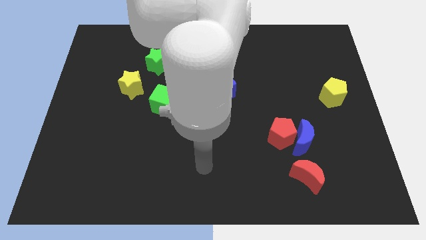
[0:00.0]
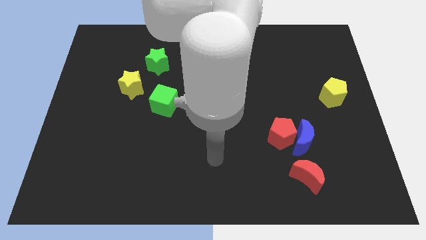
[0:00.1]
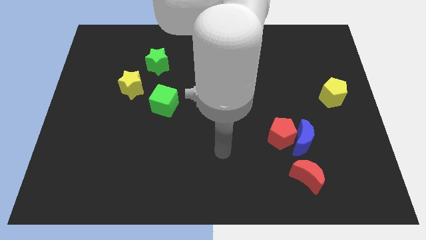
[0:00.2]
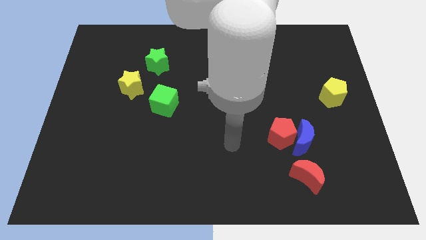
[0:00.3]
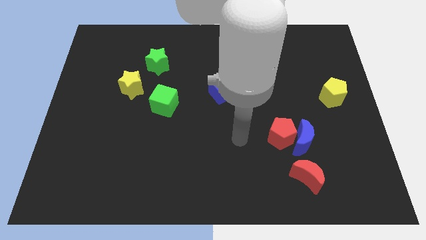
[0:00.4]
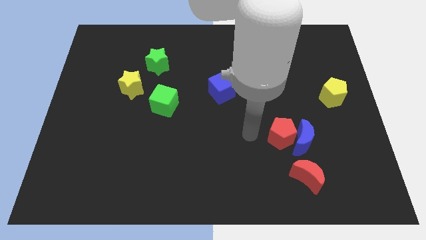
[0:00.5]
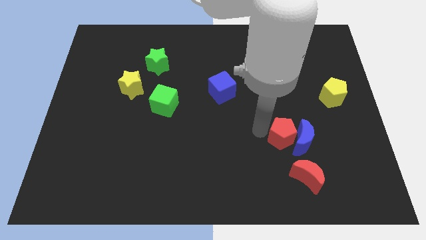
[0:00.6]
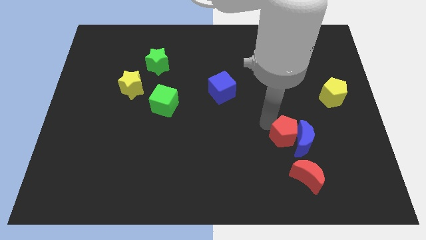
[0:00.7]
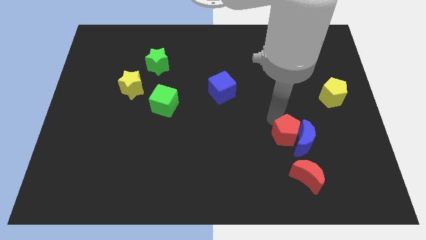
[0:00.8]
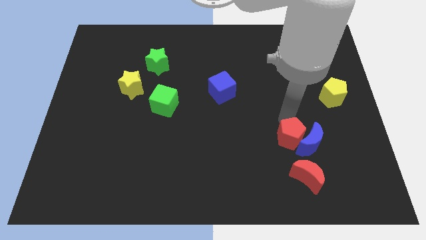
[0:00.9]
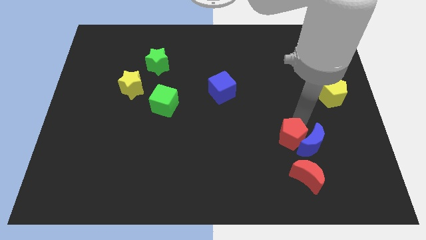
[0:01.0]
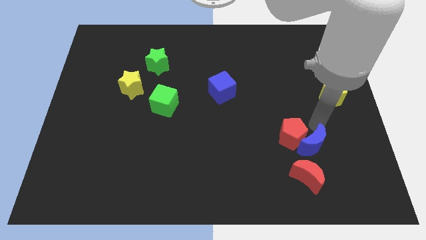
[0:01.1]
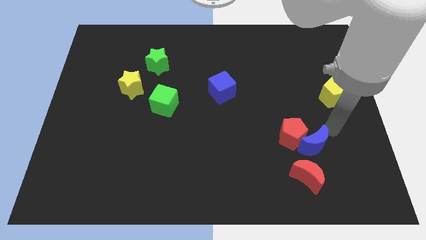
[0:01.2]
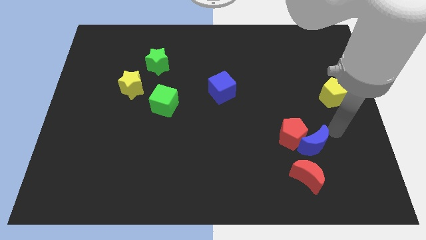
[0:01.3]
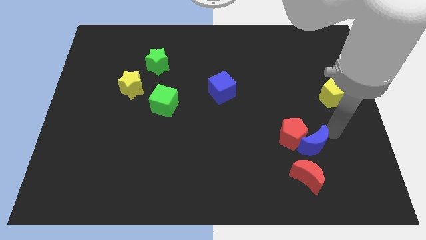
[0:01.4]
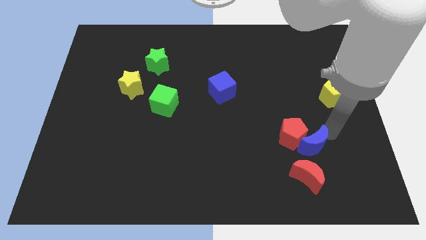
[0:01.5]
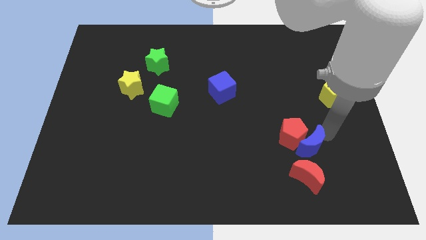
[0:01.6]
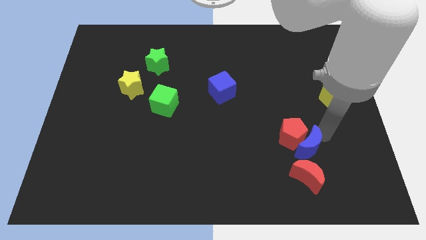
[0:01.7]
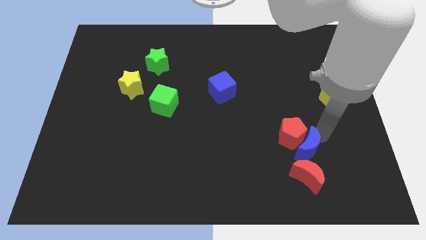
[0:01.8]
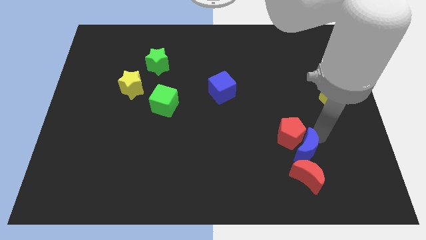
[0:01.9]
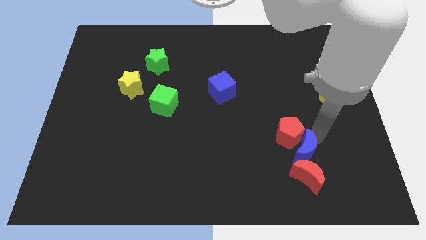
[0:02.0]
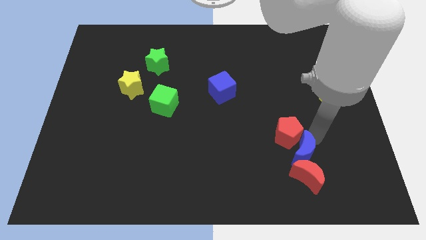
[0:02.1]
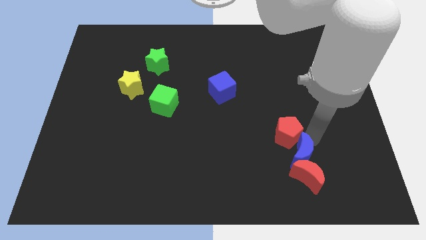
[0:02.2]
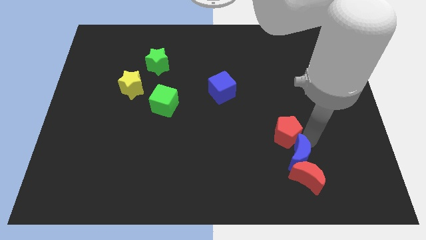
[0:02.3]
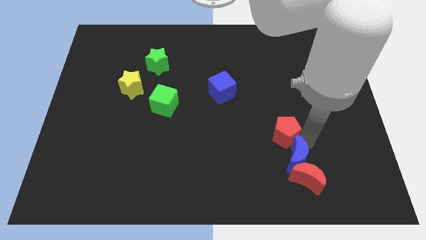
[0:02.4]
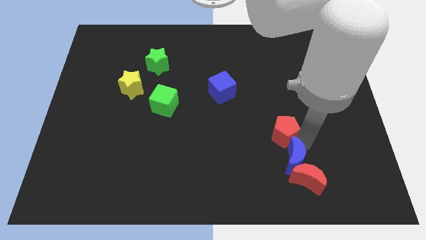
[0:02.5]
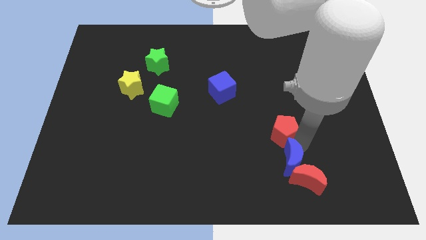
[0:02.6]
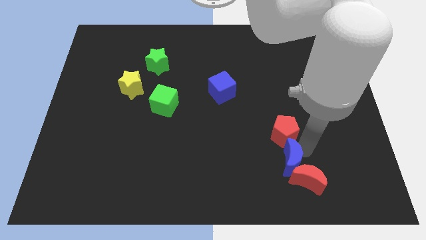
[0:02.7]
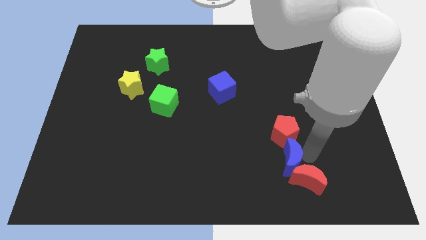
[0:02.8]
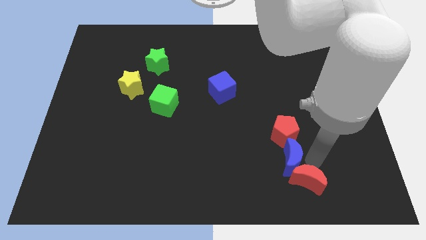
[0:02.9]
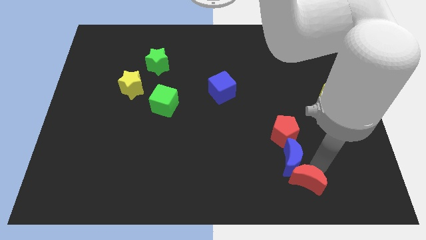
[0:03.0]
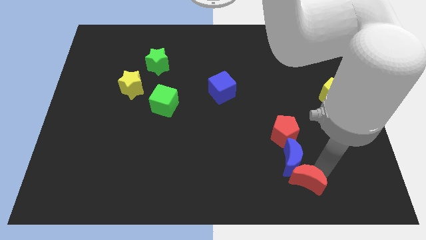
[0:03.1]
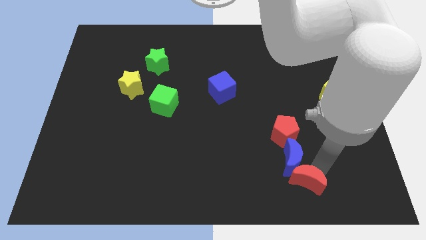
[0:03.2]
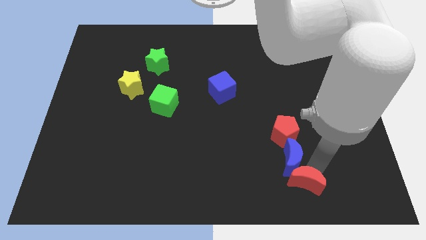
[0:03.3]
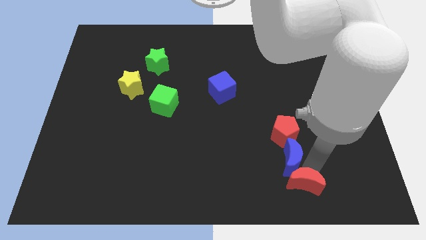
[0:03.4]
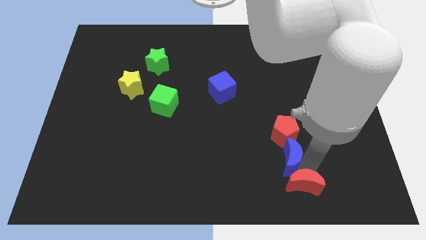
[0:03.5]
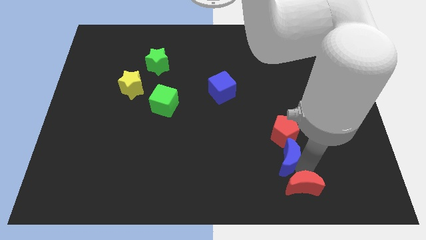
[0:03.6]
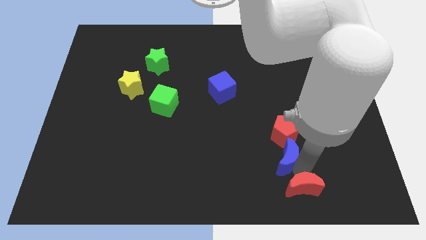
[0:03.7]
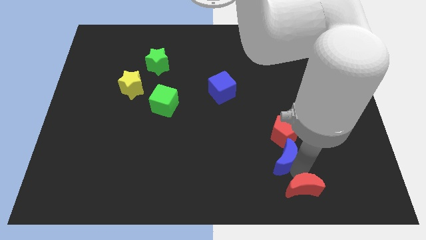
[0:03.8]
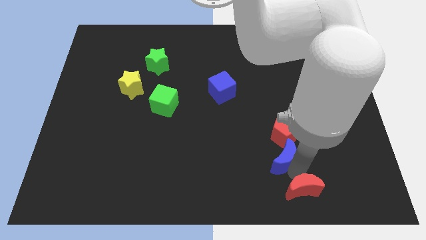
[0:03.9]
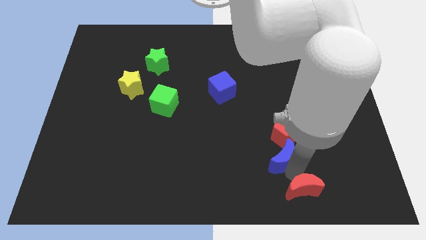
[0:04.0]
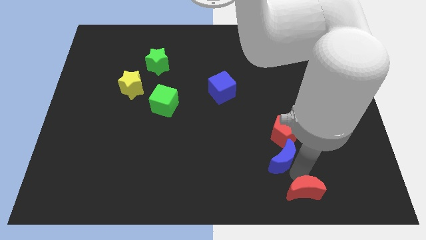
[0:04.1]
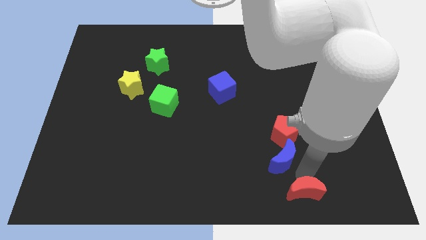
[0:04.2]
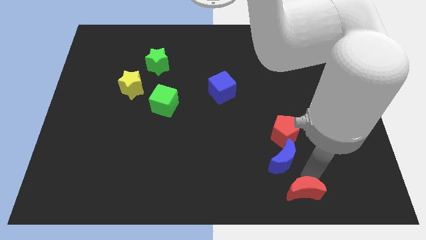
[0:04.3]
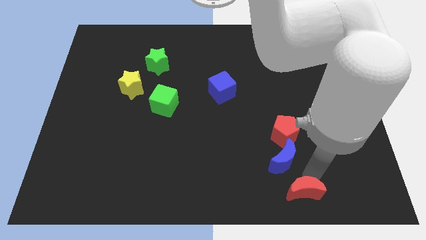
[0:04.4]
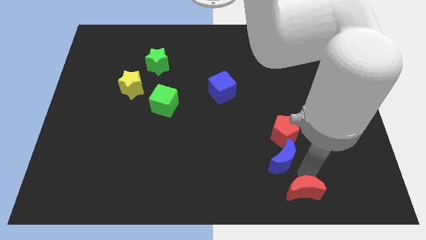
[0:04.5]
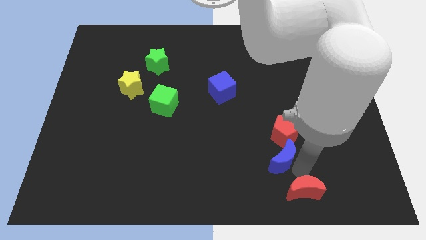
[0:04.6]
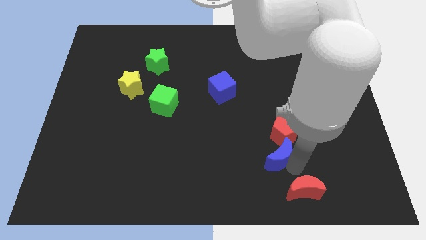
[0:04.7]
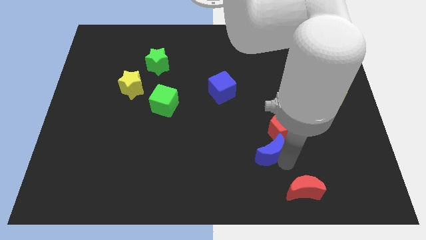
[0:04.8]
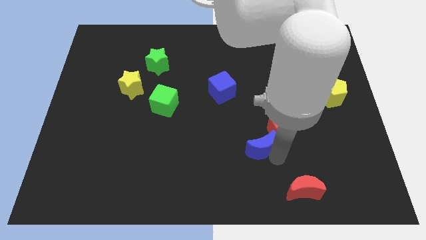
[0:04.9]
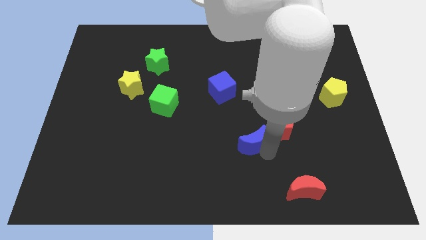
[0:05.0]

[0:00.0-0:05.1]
push the blue moon left of the red pentagon

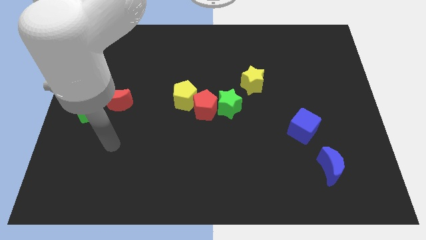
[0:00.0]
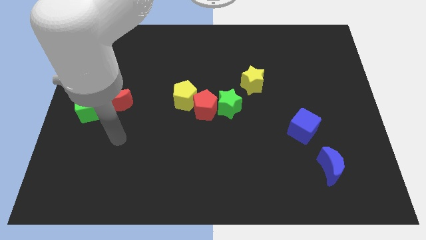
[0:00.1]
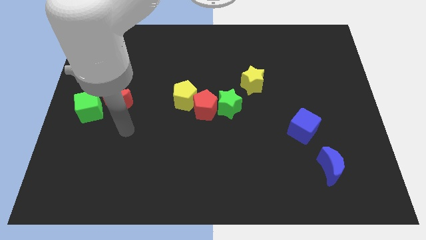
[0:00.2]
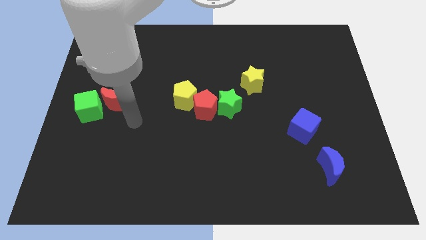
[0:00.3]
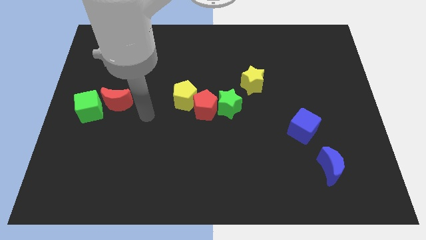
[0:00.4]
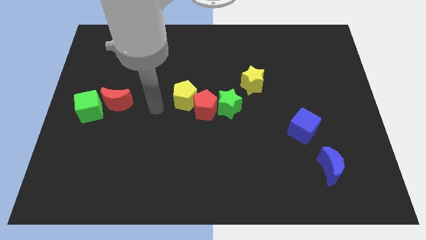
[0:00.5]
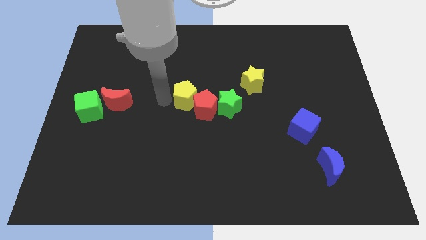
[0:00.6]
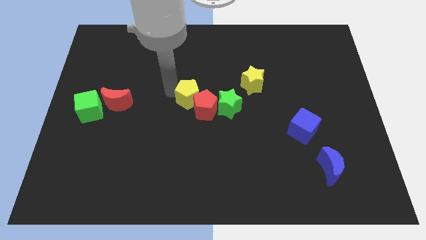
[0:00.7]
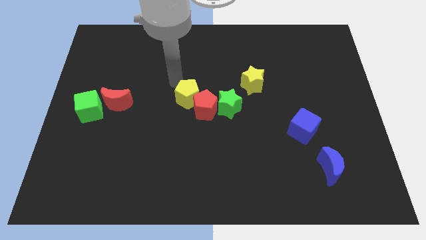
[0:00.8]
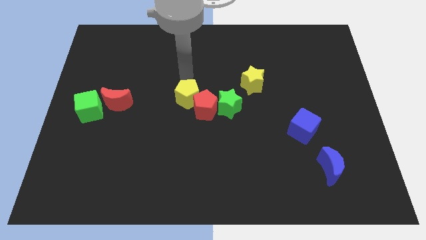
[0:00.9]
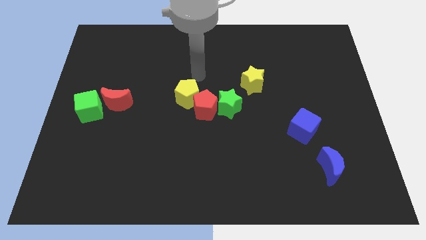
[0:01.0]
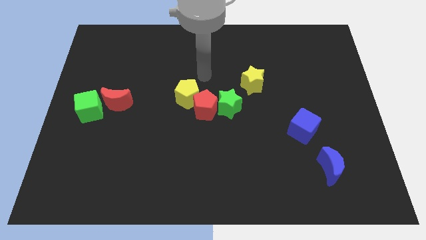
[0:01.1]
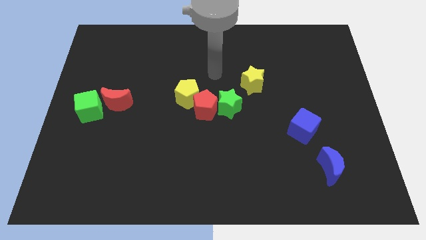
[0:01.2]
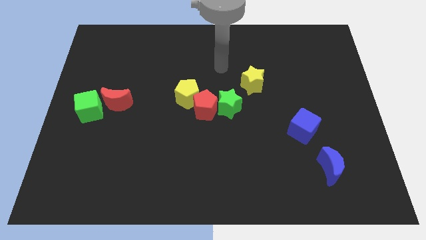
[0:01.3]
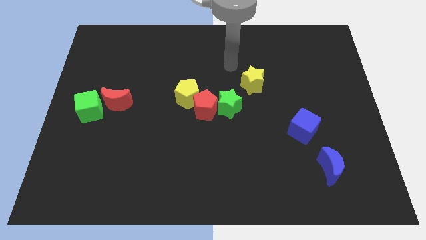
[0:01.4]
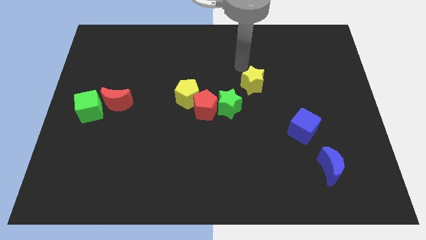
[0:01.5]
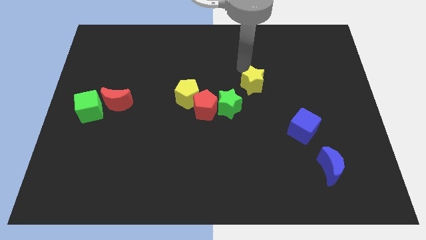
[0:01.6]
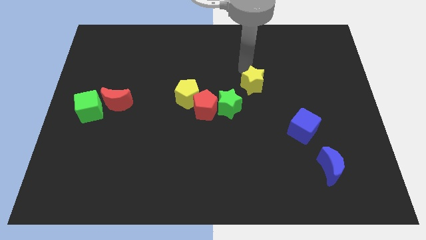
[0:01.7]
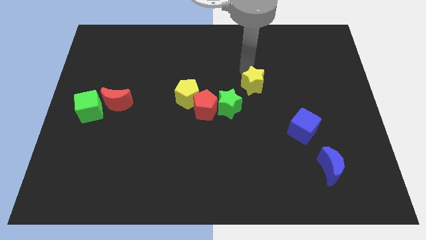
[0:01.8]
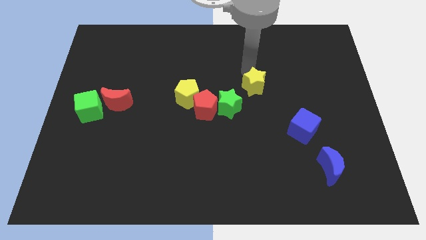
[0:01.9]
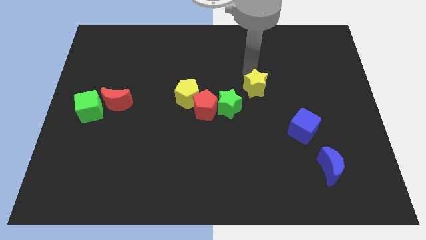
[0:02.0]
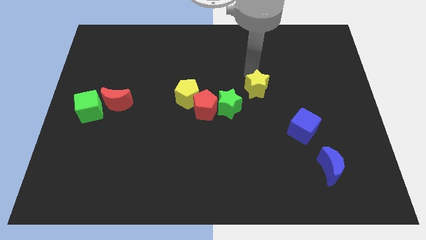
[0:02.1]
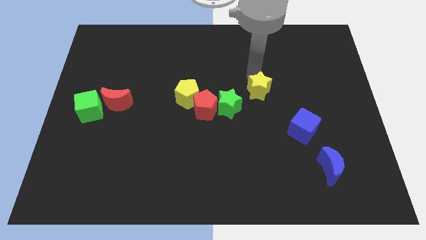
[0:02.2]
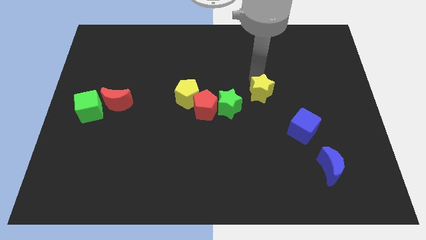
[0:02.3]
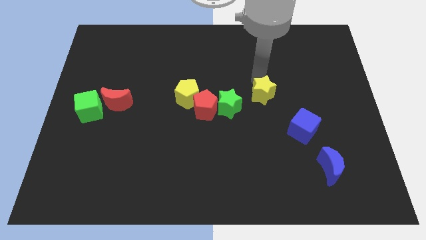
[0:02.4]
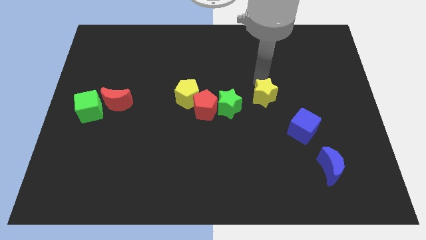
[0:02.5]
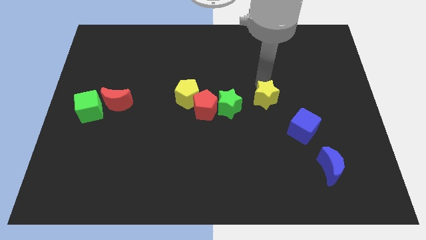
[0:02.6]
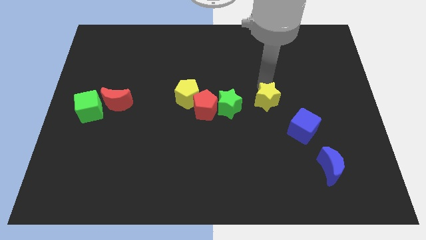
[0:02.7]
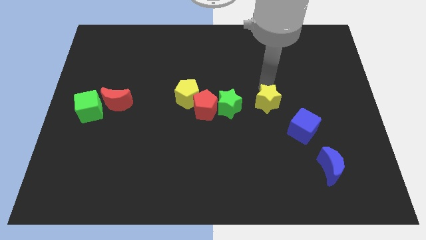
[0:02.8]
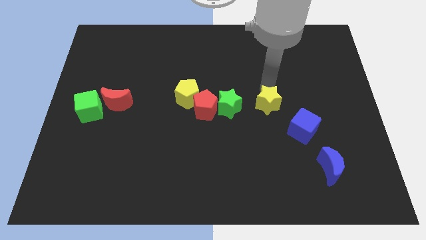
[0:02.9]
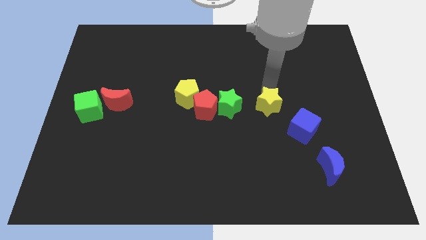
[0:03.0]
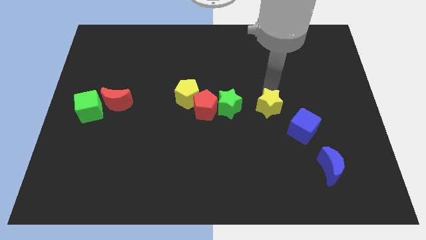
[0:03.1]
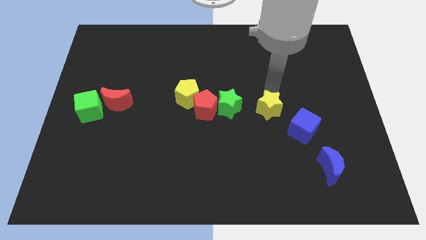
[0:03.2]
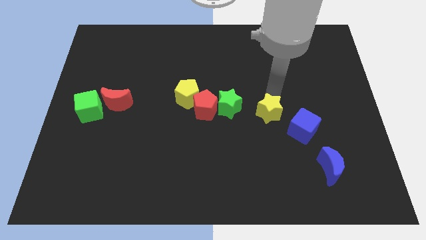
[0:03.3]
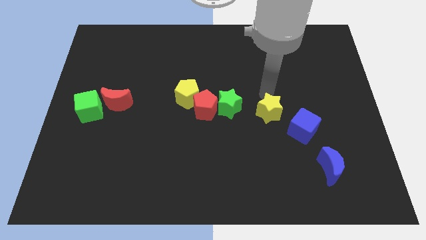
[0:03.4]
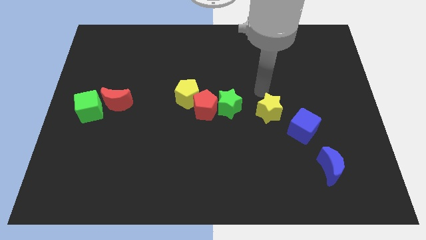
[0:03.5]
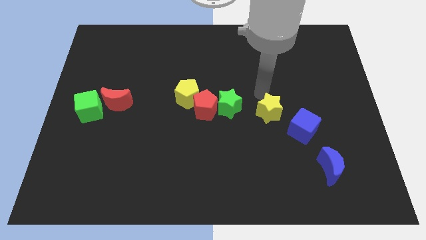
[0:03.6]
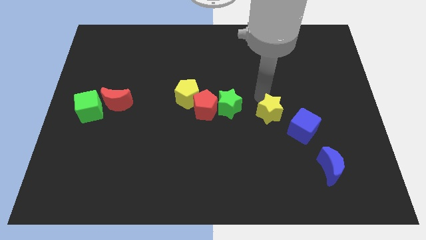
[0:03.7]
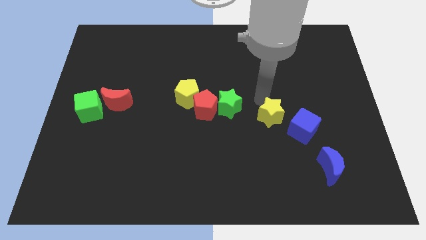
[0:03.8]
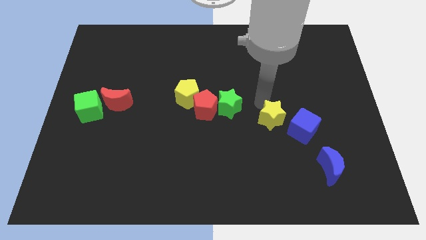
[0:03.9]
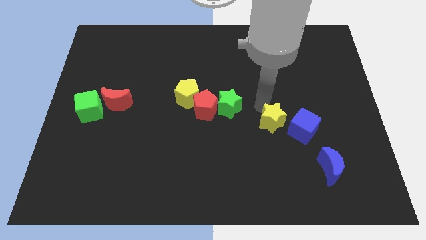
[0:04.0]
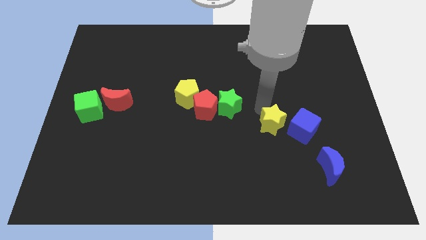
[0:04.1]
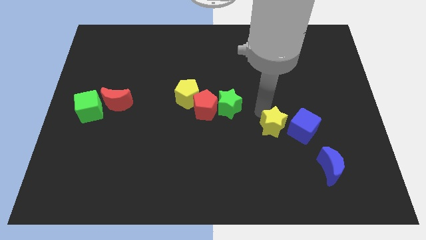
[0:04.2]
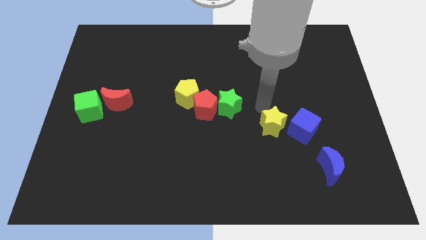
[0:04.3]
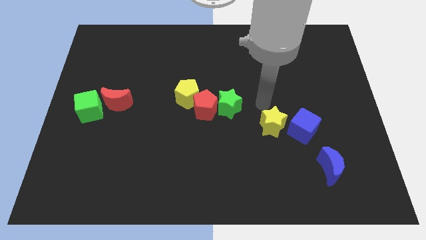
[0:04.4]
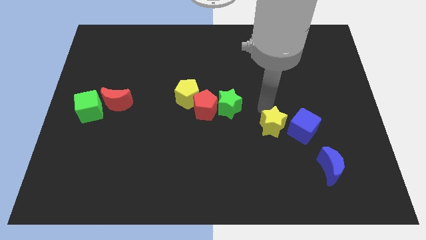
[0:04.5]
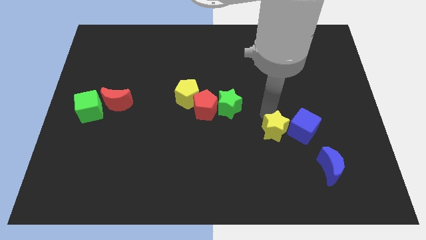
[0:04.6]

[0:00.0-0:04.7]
slide the yellow star diagonally down and to the left of the blue cube
